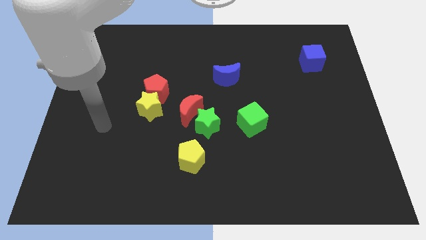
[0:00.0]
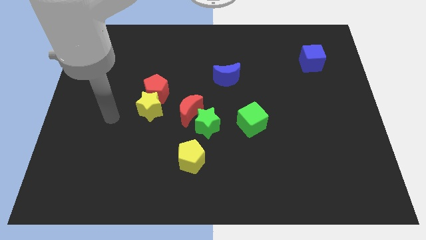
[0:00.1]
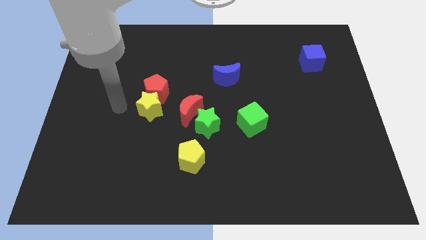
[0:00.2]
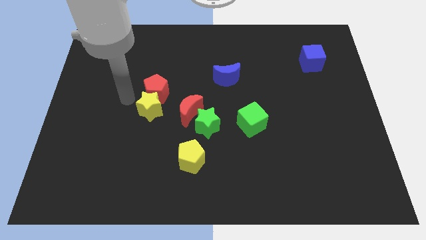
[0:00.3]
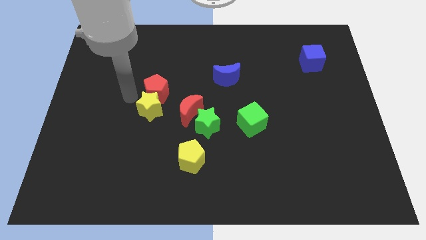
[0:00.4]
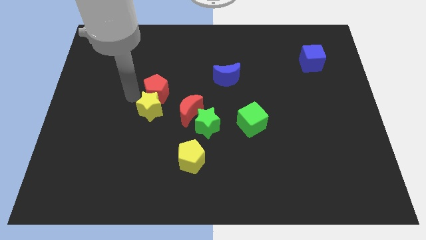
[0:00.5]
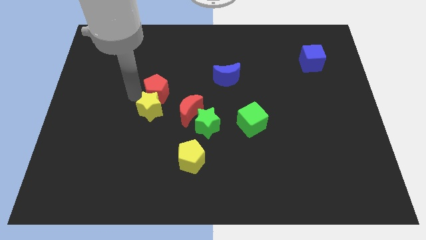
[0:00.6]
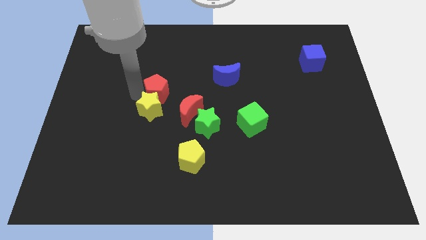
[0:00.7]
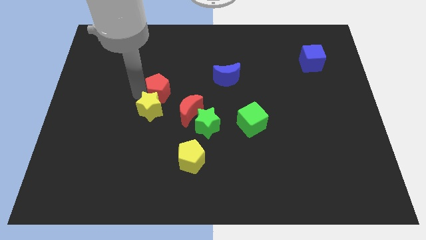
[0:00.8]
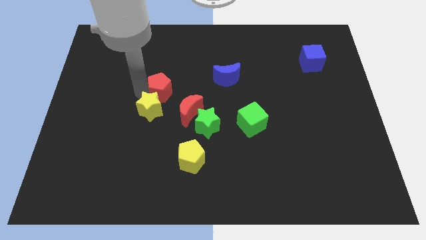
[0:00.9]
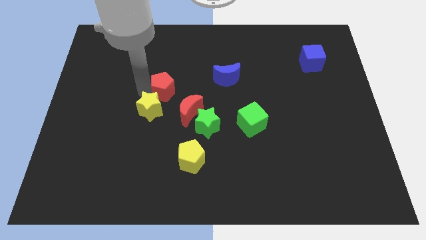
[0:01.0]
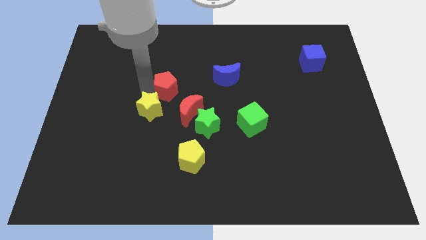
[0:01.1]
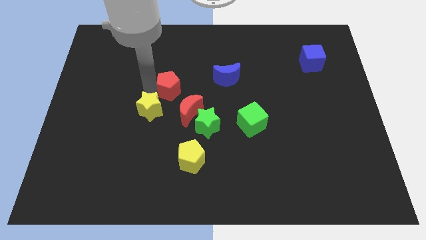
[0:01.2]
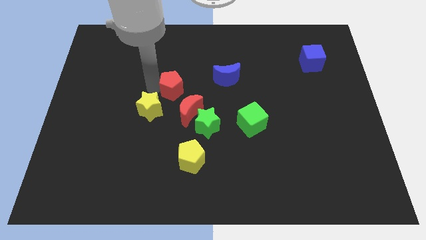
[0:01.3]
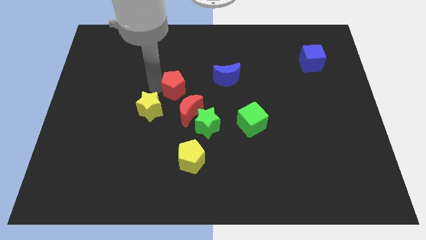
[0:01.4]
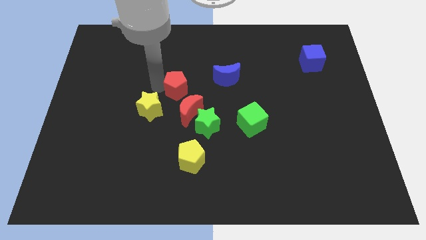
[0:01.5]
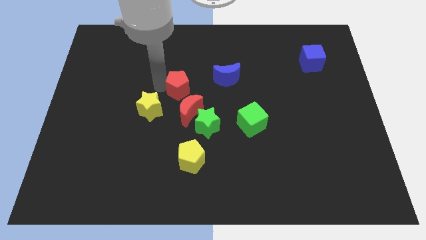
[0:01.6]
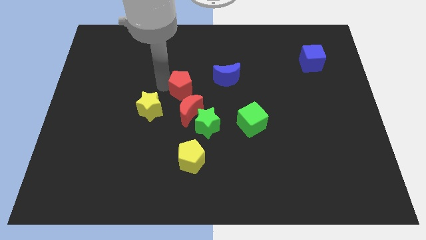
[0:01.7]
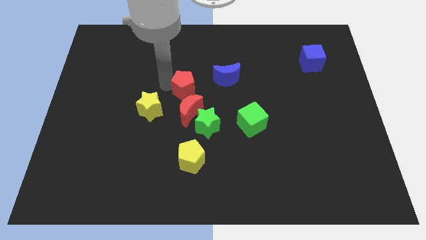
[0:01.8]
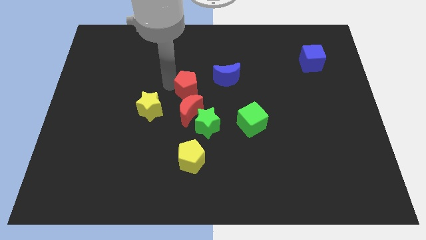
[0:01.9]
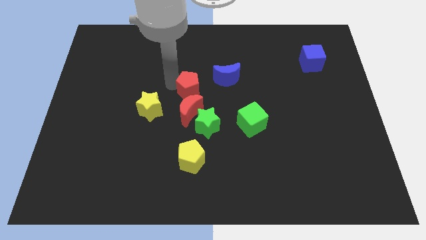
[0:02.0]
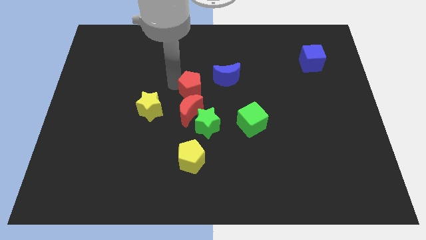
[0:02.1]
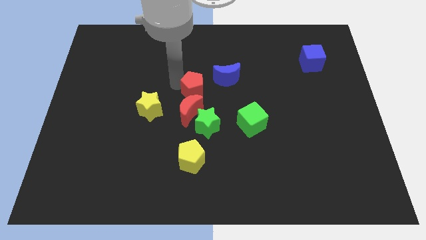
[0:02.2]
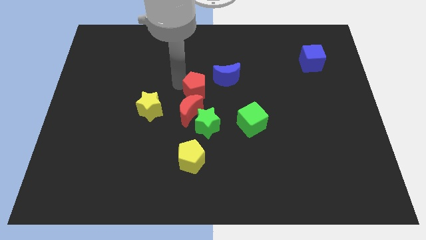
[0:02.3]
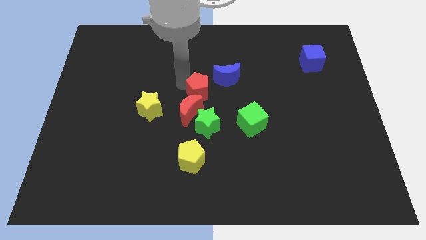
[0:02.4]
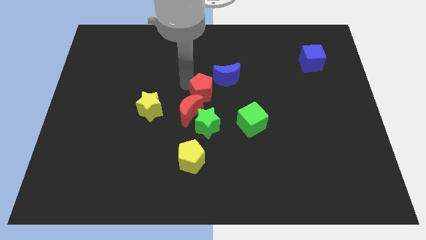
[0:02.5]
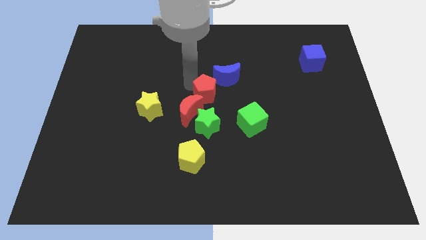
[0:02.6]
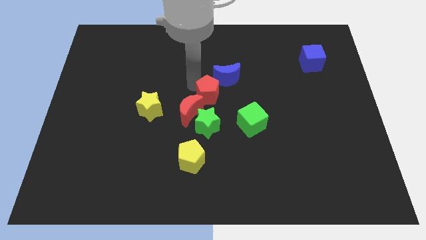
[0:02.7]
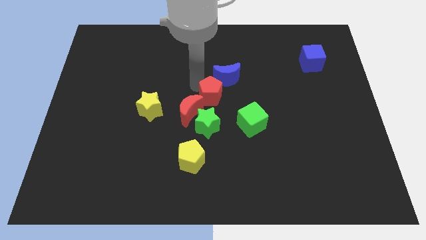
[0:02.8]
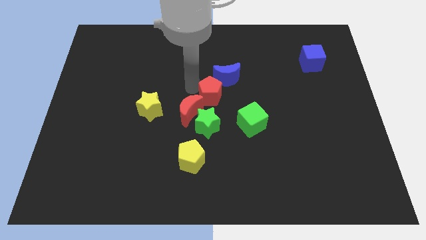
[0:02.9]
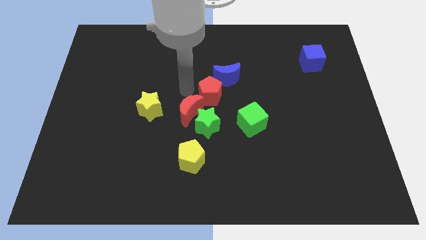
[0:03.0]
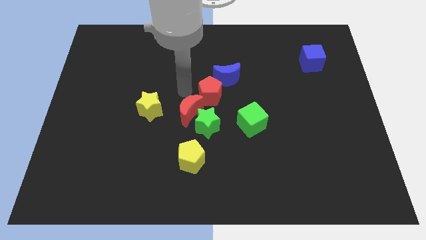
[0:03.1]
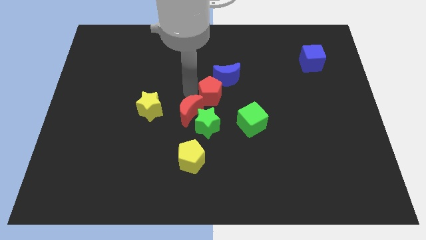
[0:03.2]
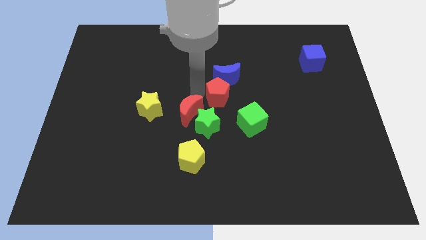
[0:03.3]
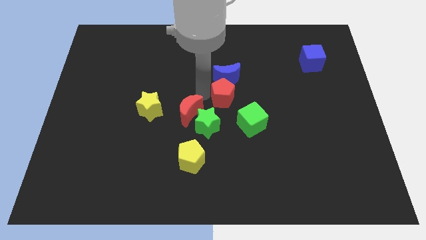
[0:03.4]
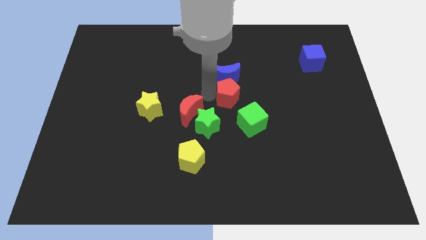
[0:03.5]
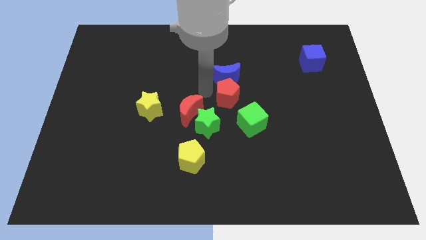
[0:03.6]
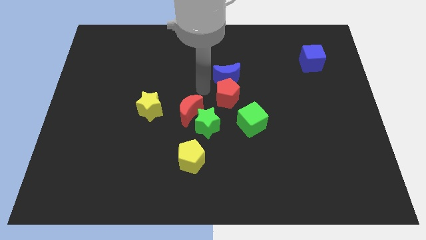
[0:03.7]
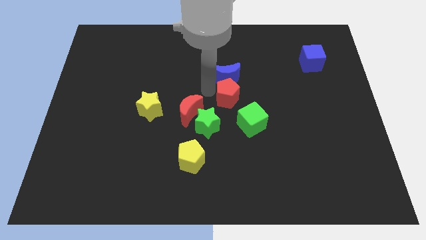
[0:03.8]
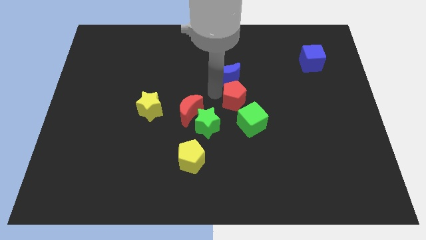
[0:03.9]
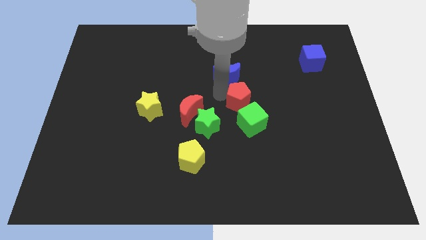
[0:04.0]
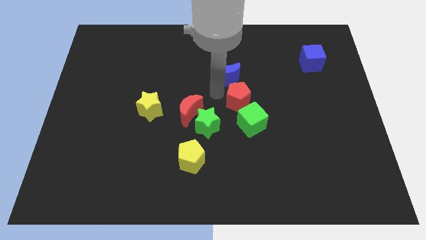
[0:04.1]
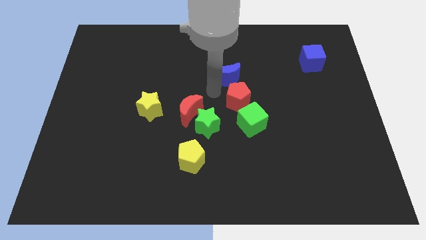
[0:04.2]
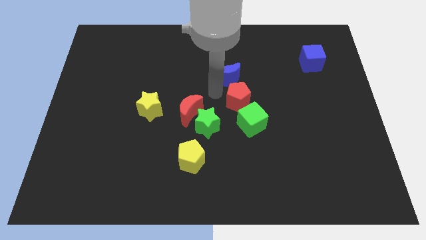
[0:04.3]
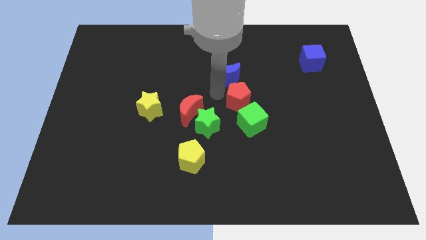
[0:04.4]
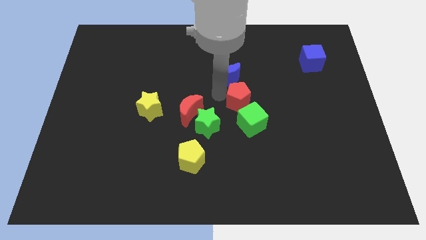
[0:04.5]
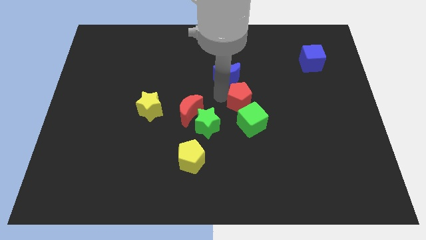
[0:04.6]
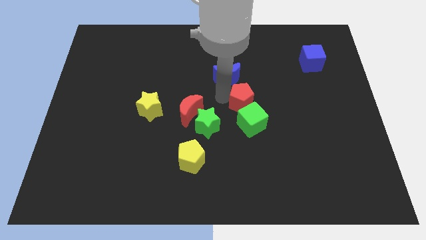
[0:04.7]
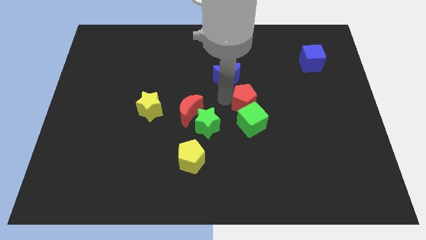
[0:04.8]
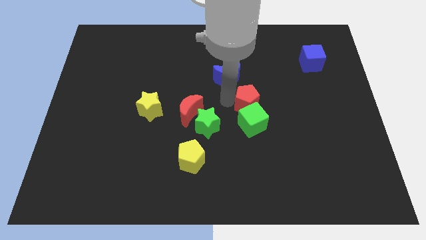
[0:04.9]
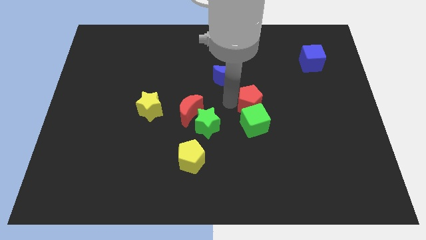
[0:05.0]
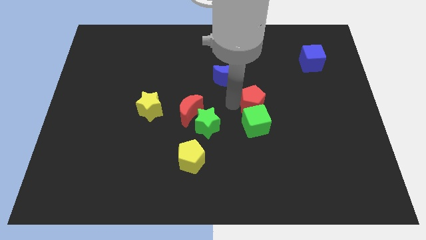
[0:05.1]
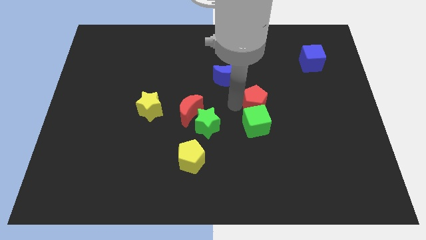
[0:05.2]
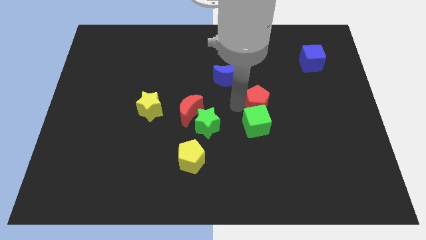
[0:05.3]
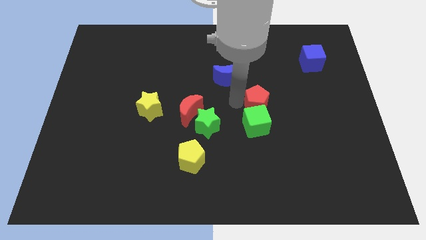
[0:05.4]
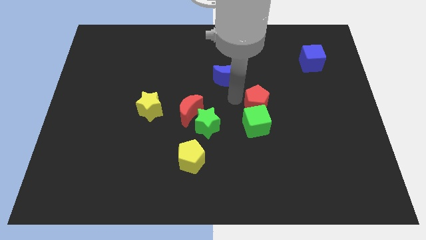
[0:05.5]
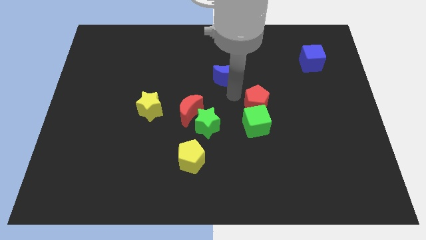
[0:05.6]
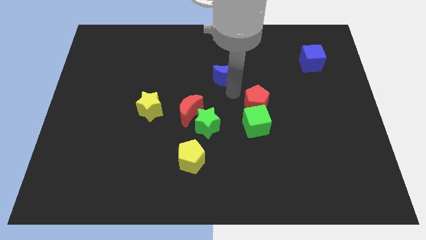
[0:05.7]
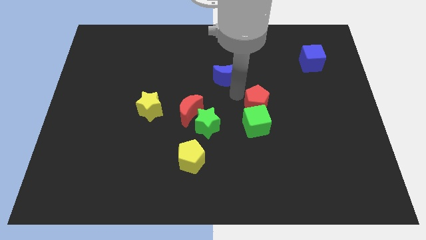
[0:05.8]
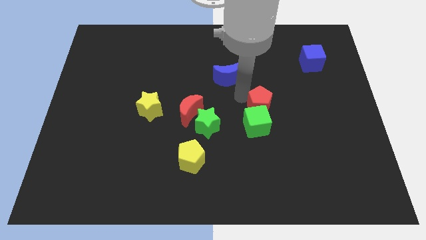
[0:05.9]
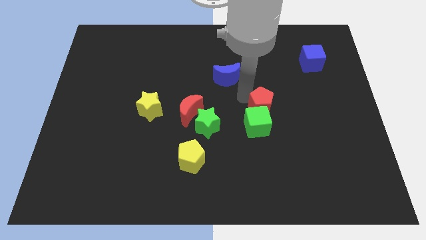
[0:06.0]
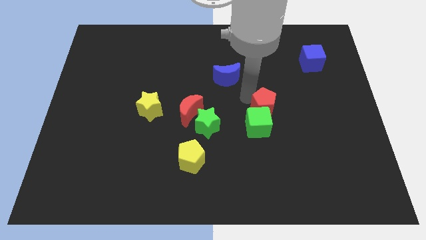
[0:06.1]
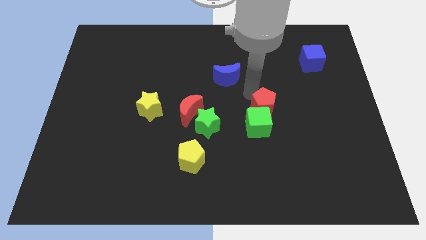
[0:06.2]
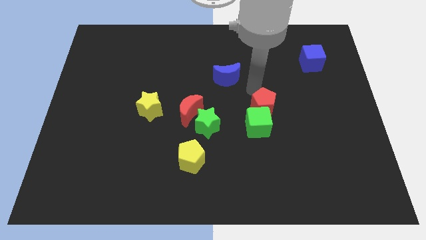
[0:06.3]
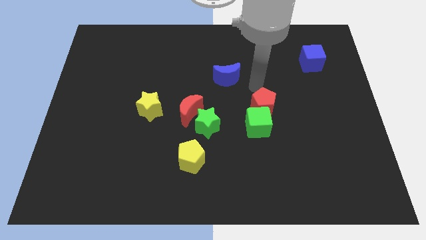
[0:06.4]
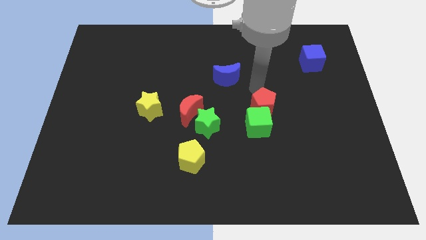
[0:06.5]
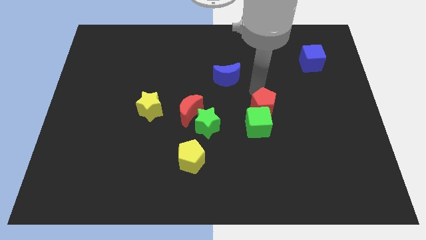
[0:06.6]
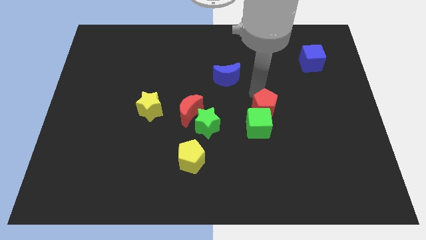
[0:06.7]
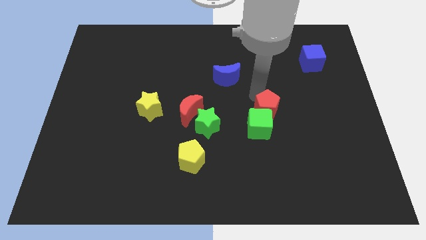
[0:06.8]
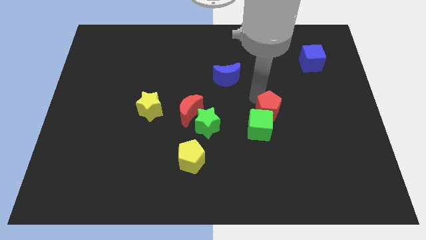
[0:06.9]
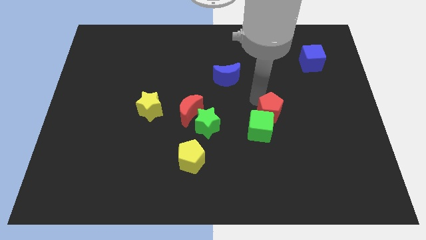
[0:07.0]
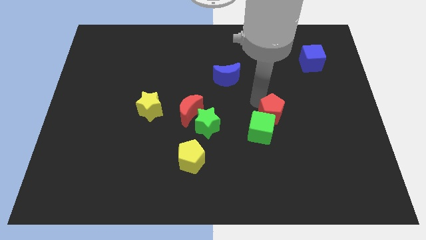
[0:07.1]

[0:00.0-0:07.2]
move the red pentagon right of the green star

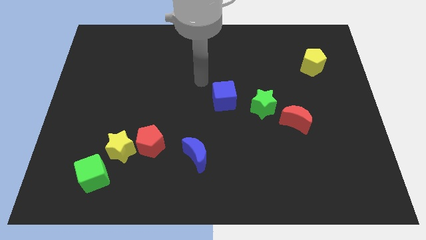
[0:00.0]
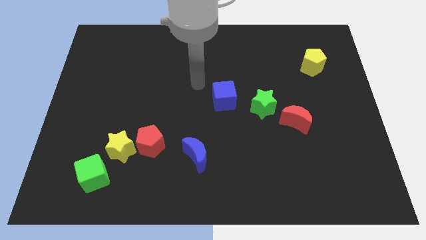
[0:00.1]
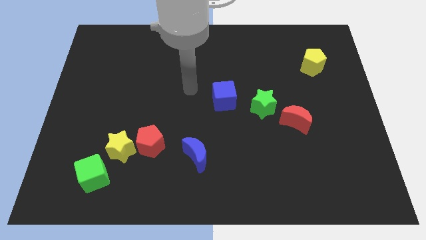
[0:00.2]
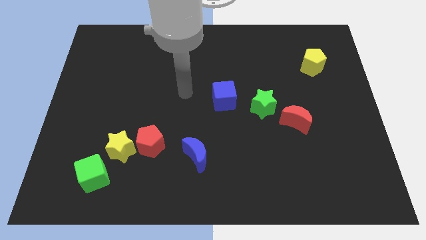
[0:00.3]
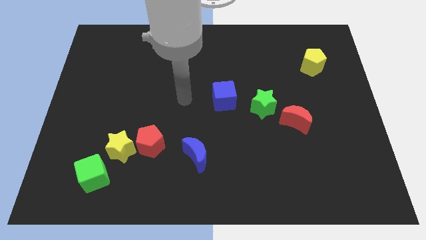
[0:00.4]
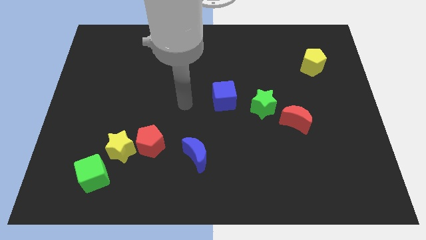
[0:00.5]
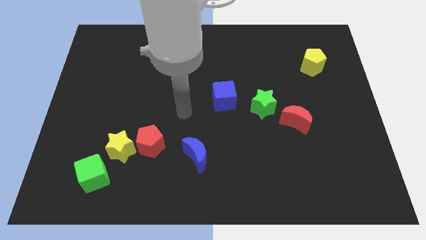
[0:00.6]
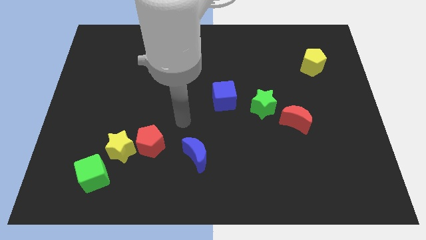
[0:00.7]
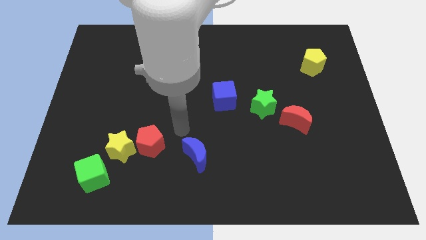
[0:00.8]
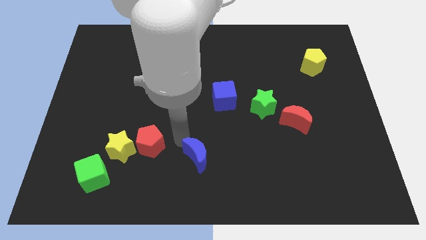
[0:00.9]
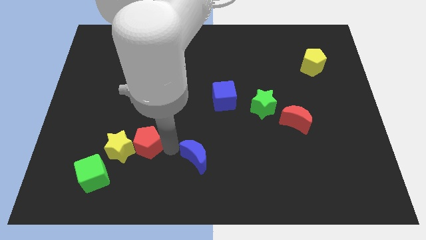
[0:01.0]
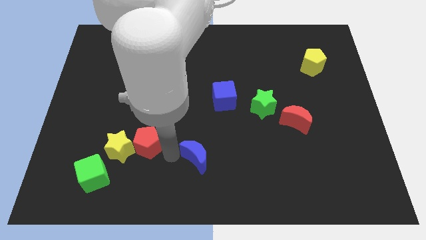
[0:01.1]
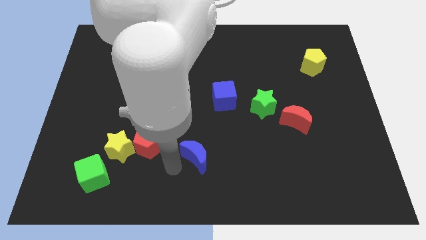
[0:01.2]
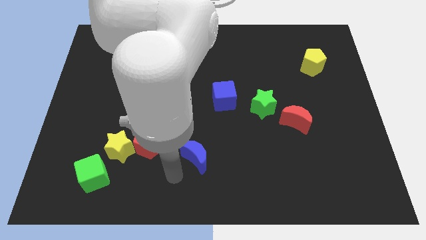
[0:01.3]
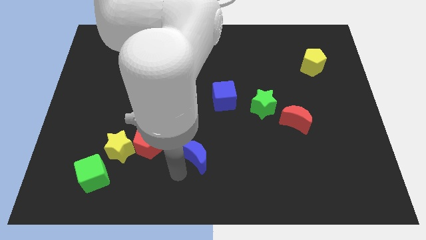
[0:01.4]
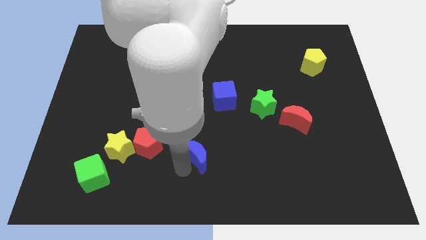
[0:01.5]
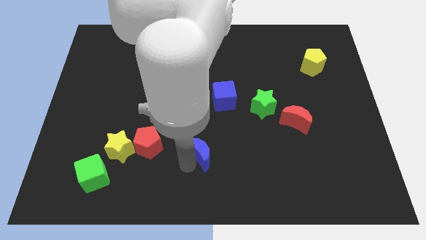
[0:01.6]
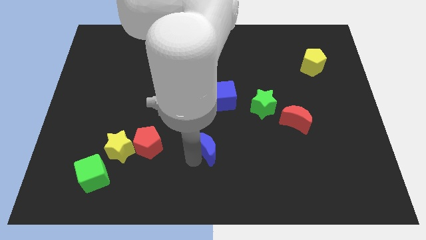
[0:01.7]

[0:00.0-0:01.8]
move the blue moon to the bottom side of the blue cube
